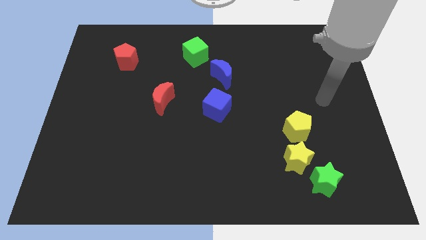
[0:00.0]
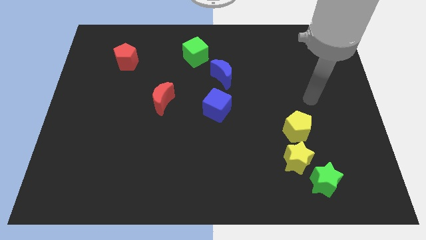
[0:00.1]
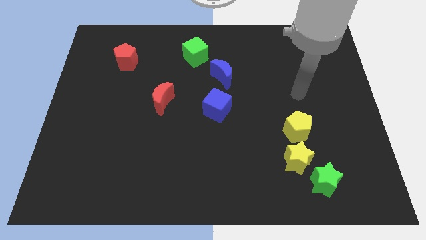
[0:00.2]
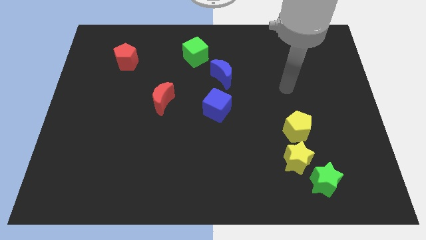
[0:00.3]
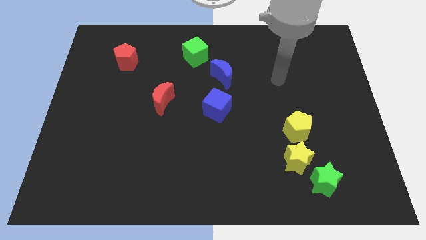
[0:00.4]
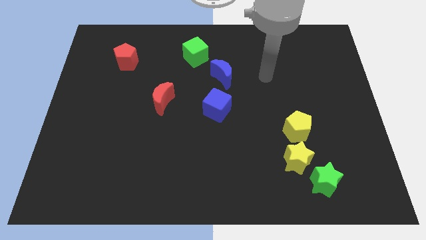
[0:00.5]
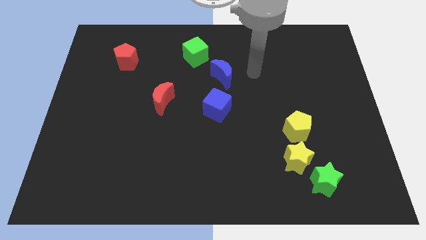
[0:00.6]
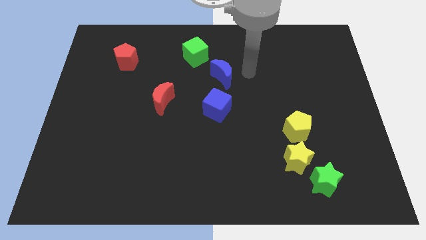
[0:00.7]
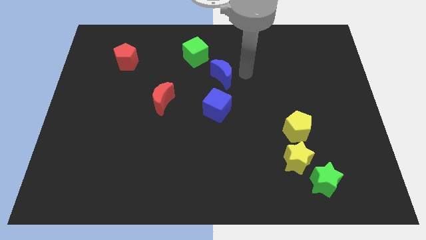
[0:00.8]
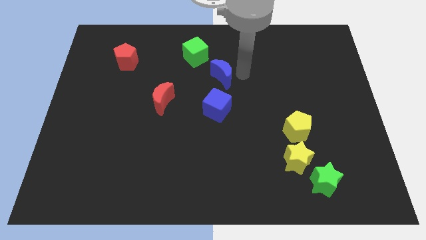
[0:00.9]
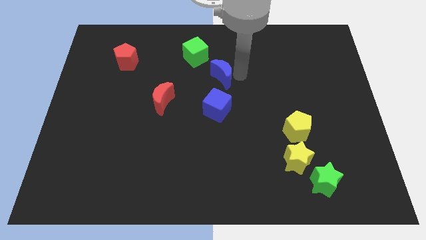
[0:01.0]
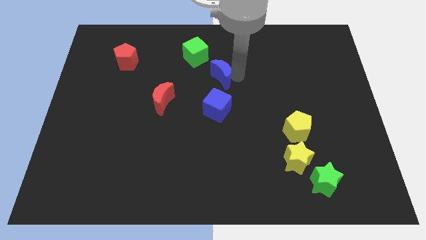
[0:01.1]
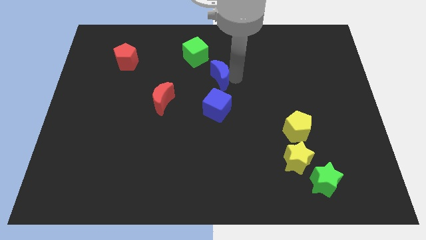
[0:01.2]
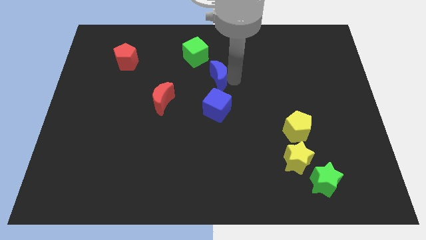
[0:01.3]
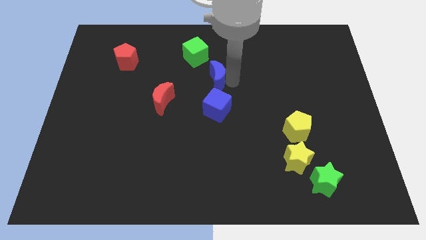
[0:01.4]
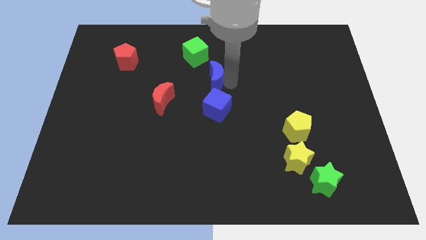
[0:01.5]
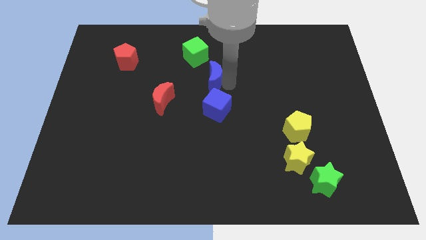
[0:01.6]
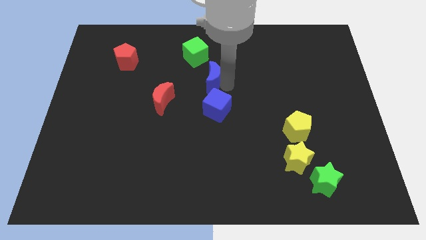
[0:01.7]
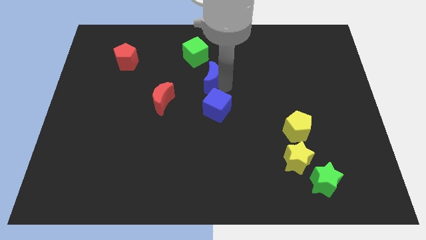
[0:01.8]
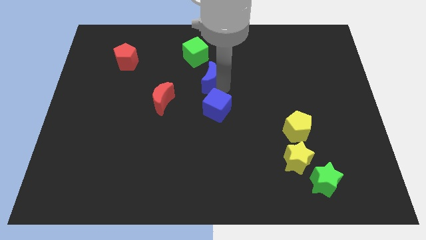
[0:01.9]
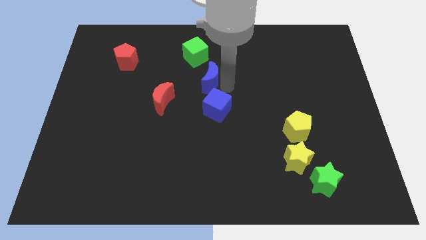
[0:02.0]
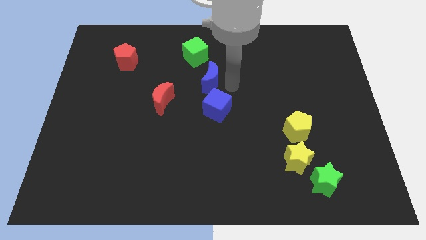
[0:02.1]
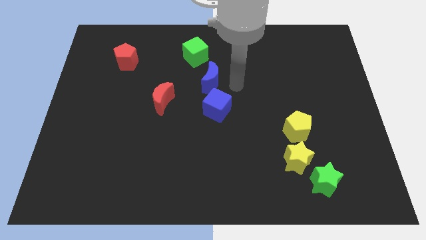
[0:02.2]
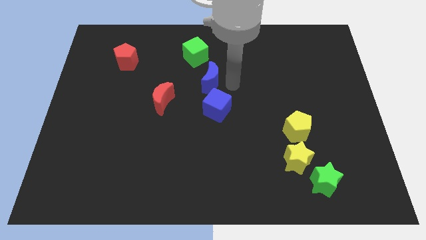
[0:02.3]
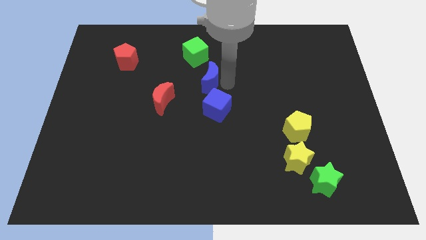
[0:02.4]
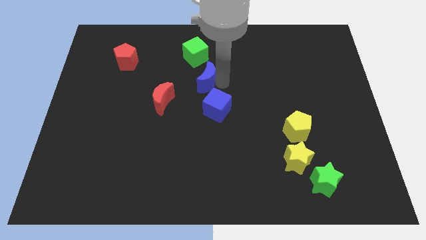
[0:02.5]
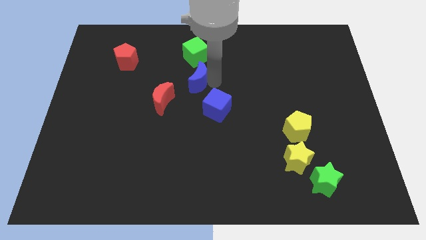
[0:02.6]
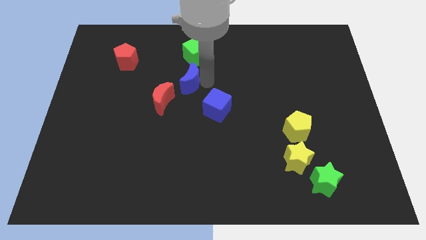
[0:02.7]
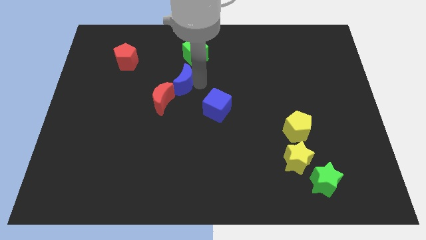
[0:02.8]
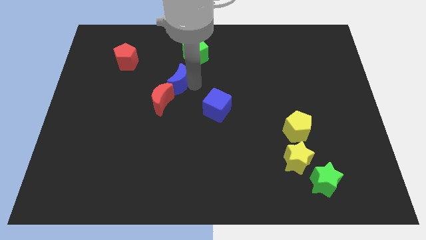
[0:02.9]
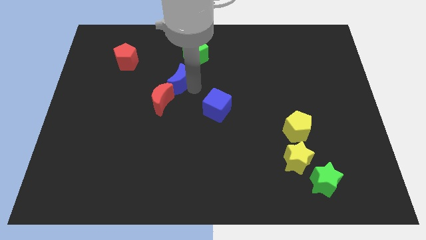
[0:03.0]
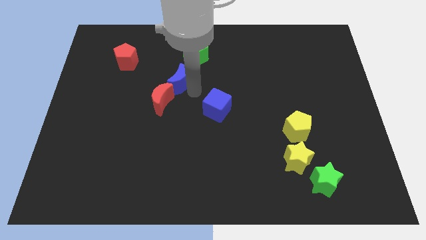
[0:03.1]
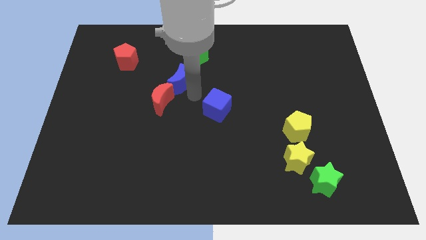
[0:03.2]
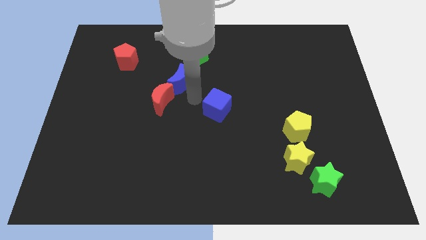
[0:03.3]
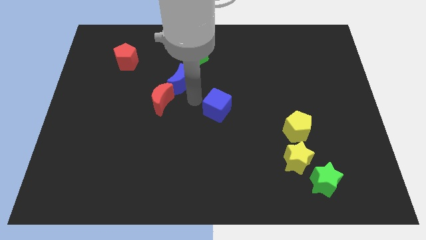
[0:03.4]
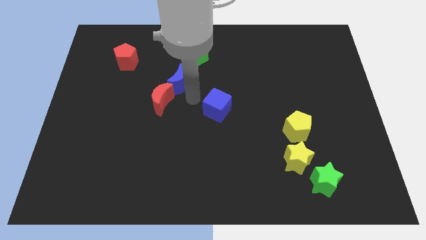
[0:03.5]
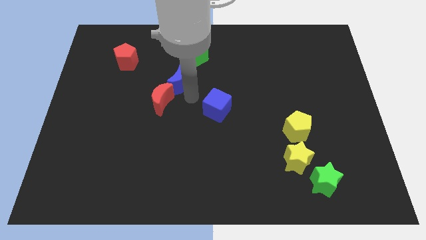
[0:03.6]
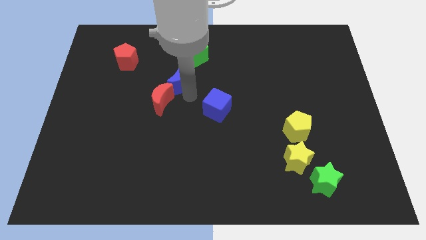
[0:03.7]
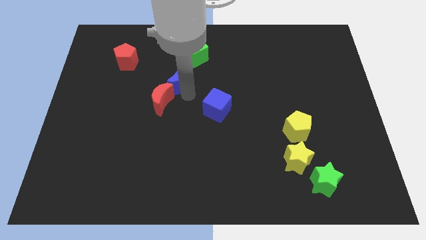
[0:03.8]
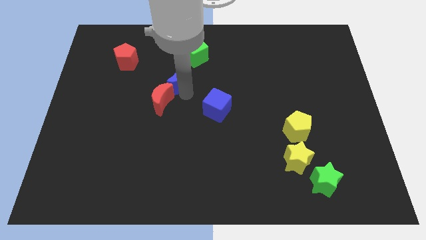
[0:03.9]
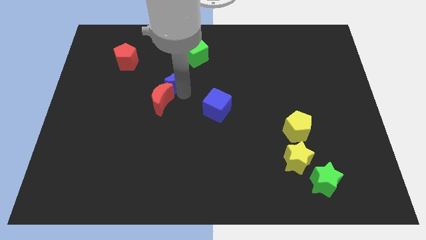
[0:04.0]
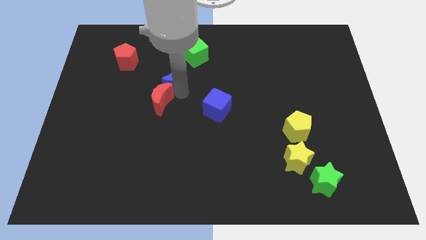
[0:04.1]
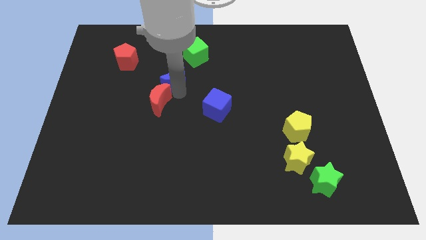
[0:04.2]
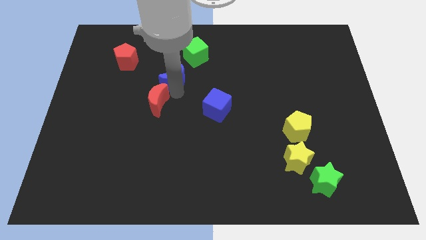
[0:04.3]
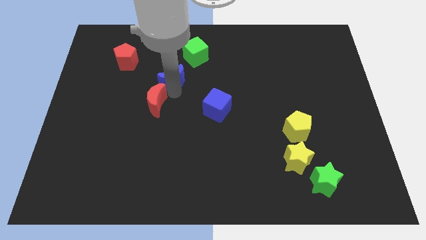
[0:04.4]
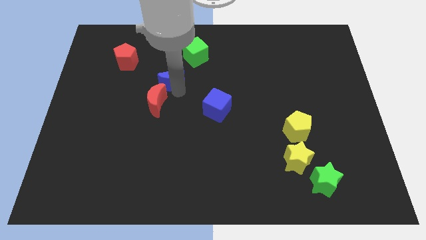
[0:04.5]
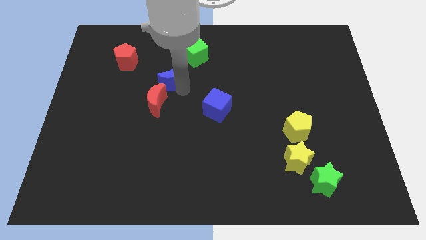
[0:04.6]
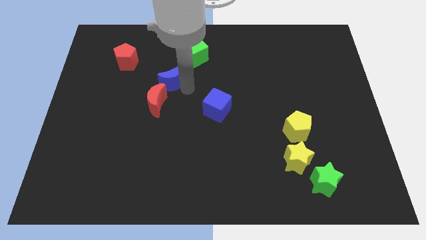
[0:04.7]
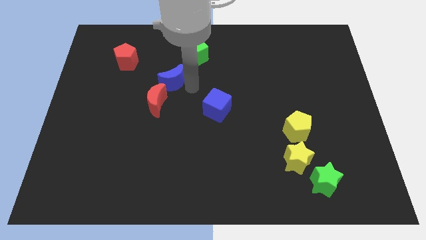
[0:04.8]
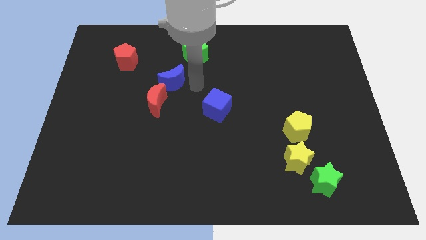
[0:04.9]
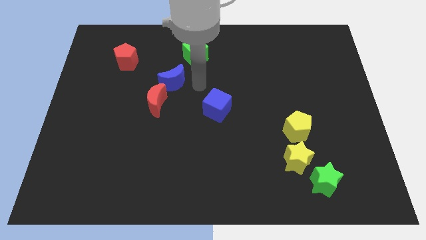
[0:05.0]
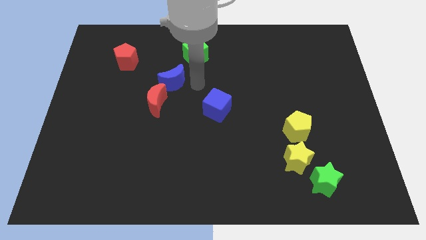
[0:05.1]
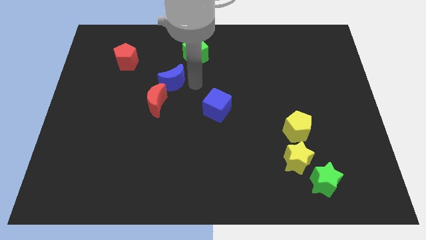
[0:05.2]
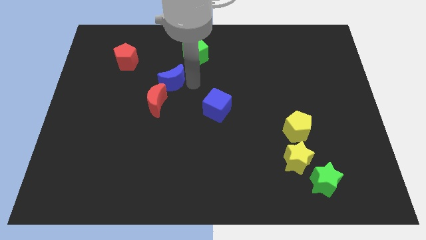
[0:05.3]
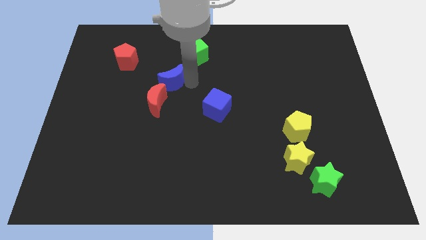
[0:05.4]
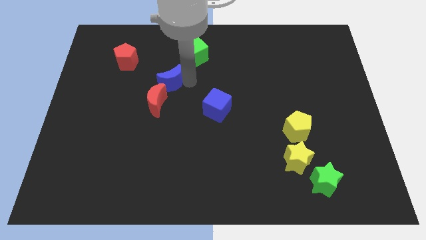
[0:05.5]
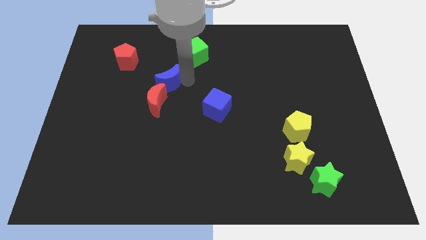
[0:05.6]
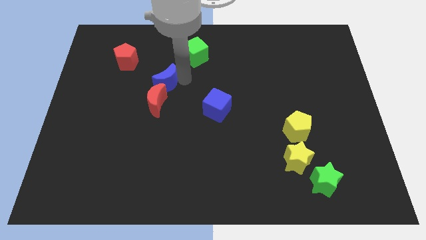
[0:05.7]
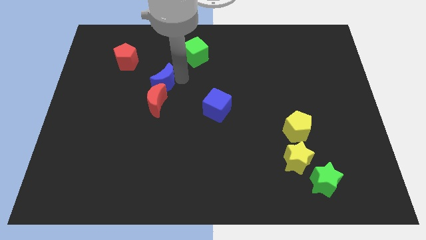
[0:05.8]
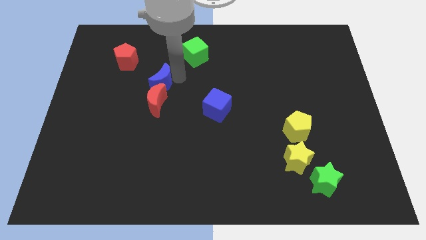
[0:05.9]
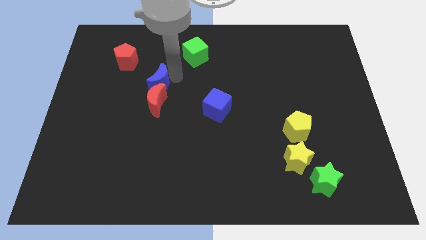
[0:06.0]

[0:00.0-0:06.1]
put the blue moon to the top left side of the red moon

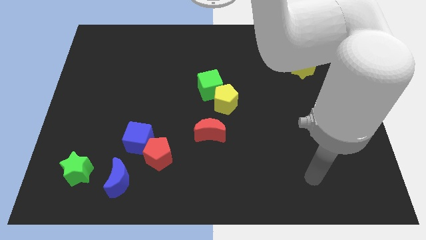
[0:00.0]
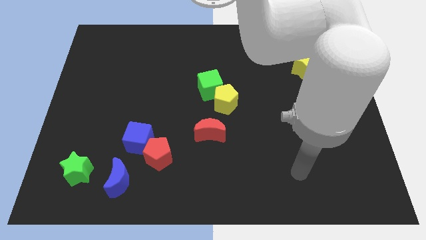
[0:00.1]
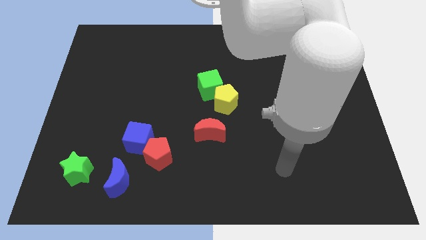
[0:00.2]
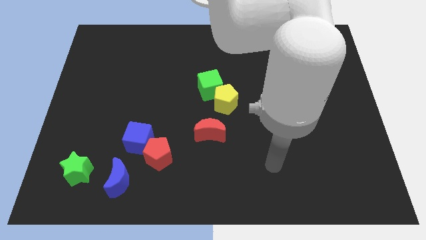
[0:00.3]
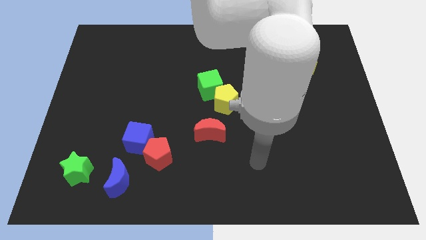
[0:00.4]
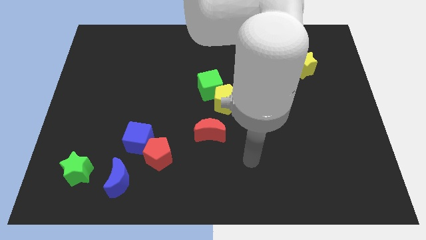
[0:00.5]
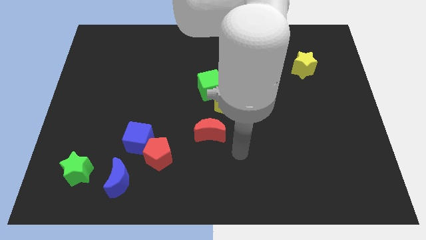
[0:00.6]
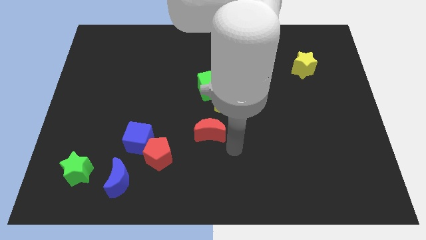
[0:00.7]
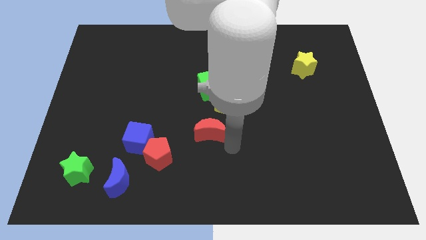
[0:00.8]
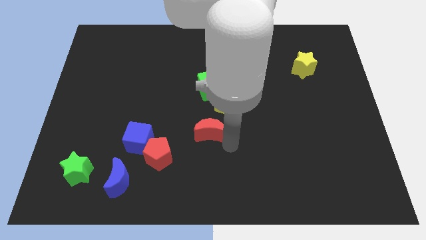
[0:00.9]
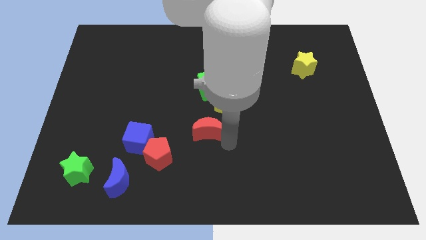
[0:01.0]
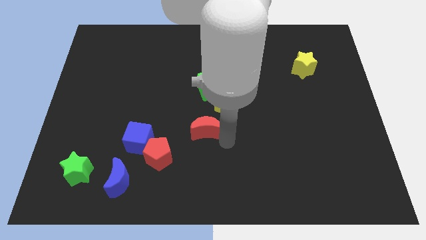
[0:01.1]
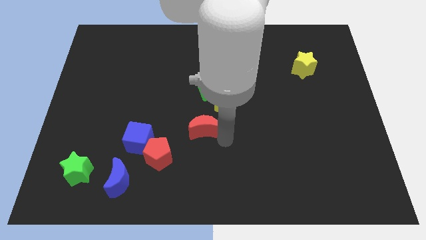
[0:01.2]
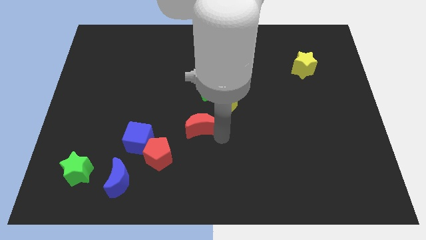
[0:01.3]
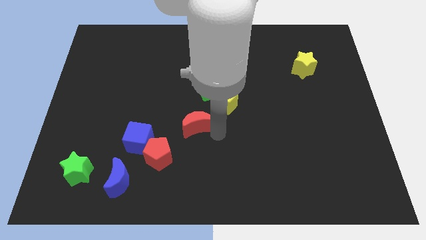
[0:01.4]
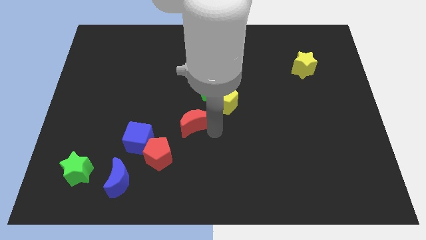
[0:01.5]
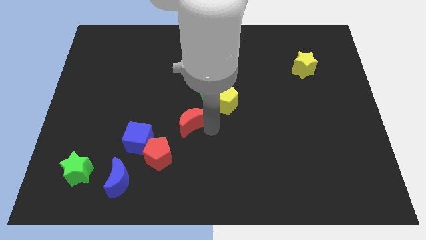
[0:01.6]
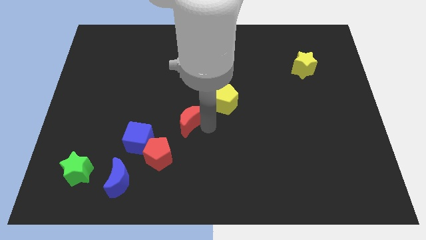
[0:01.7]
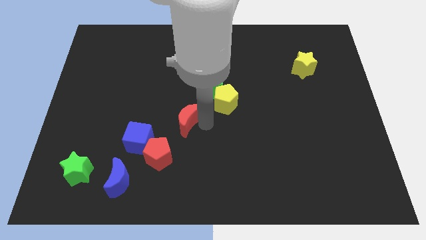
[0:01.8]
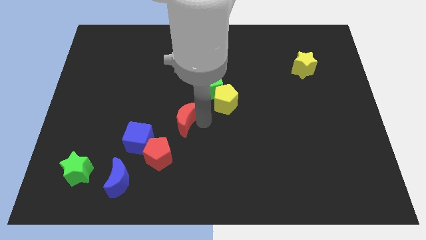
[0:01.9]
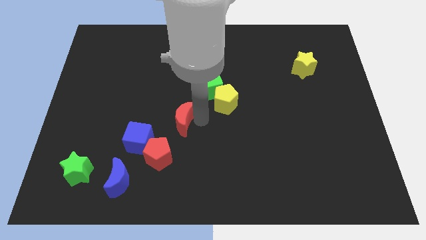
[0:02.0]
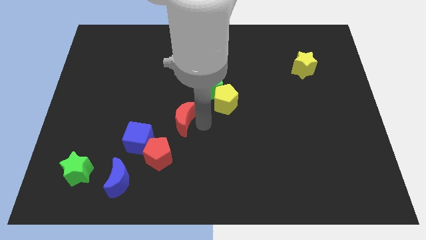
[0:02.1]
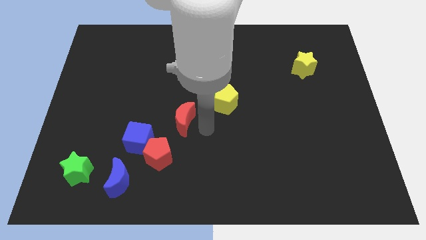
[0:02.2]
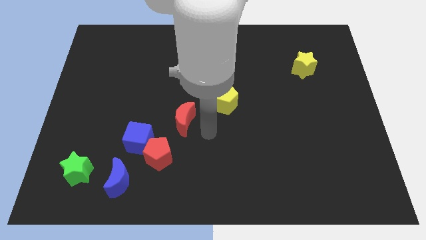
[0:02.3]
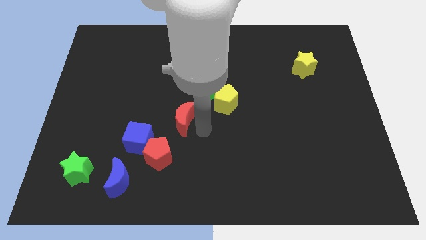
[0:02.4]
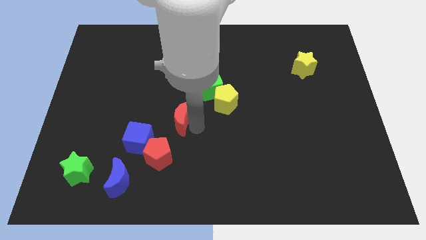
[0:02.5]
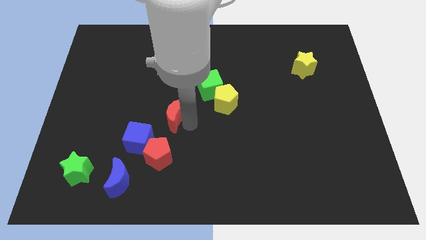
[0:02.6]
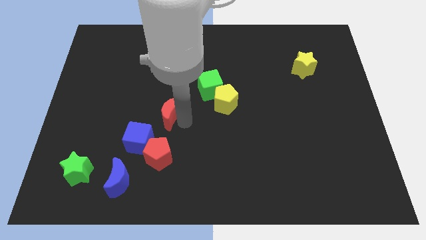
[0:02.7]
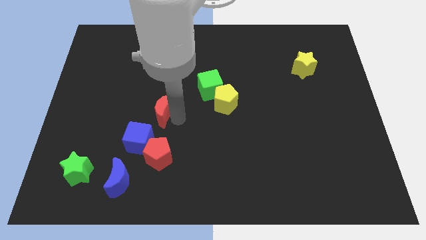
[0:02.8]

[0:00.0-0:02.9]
slide the red moon above the blue cube
